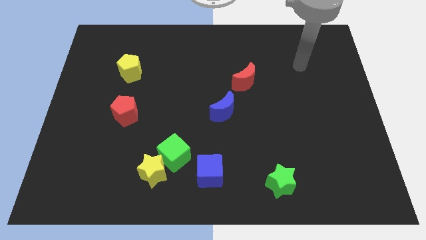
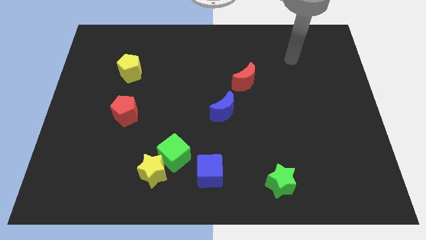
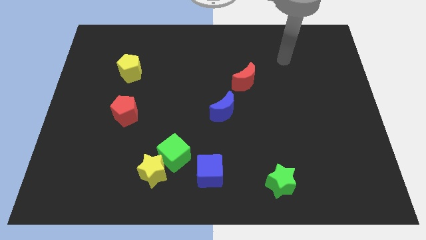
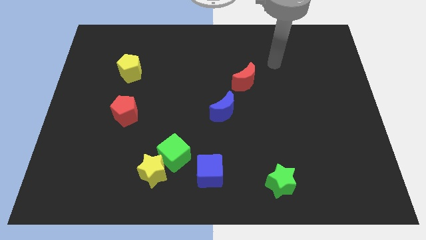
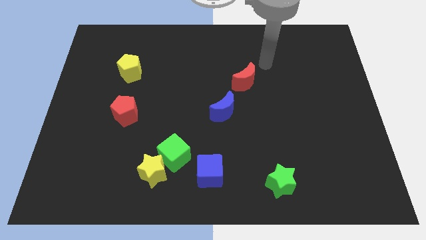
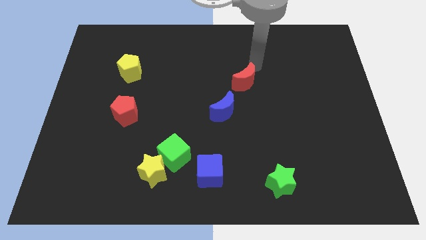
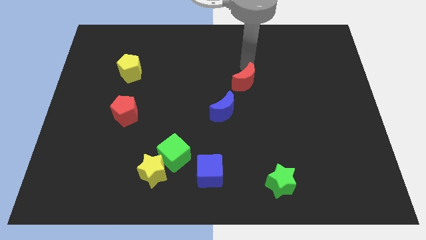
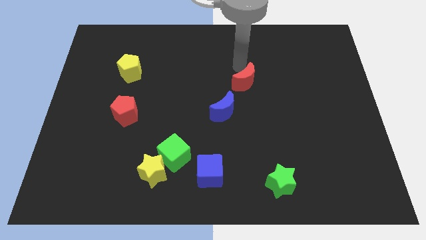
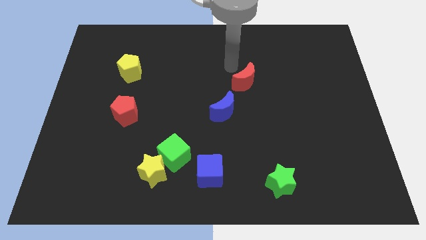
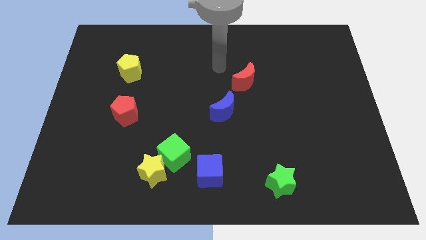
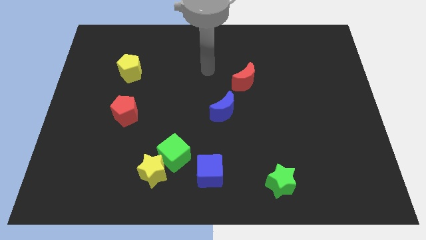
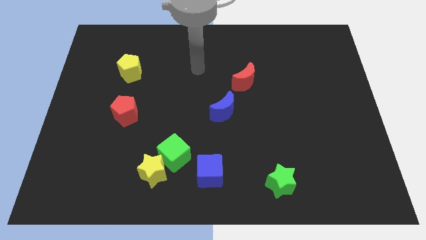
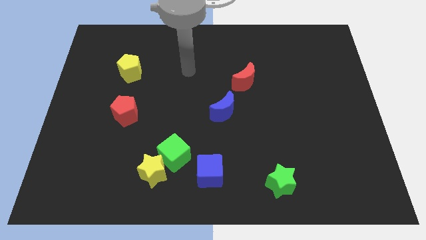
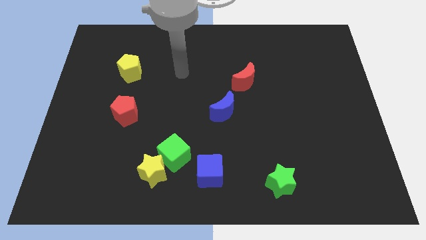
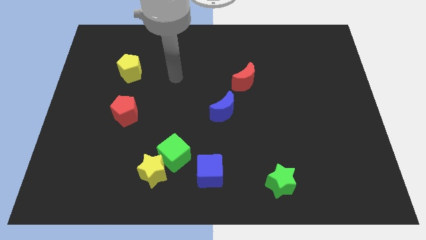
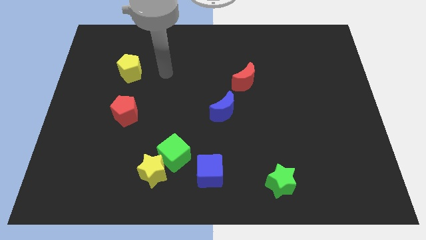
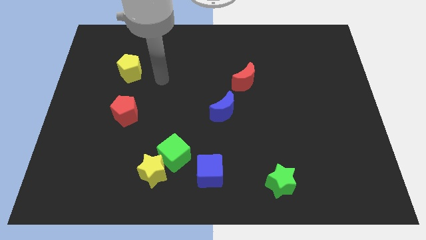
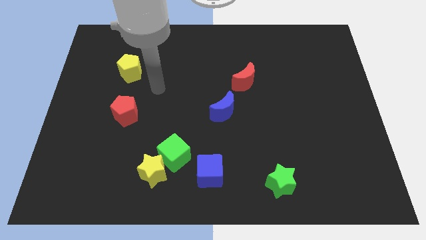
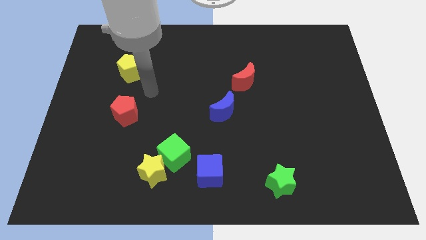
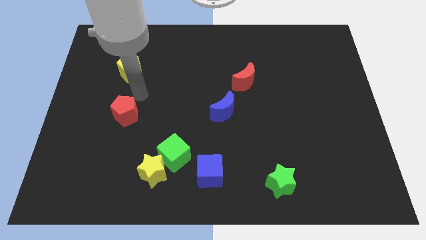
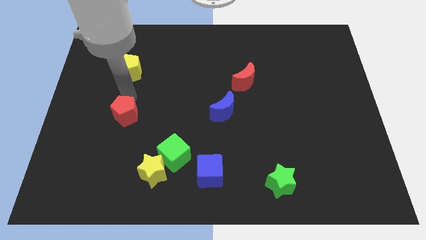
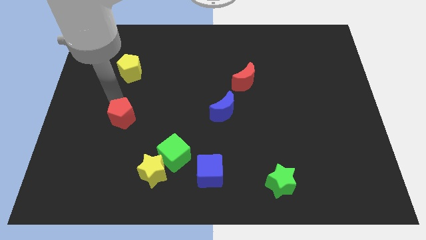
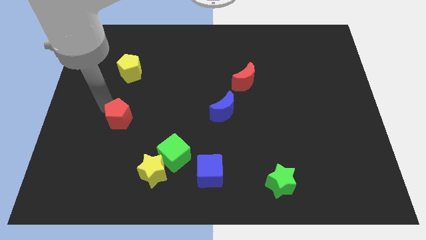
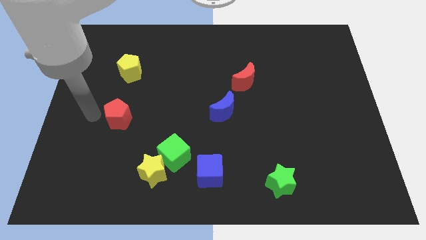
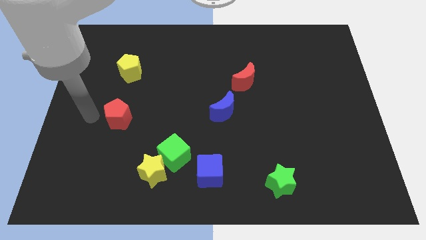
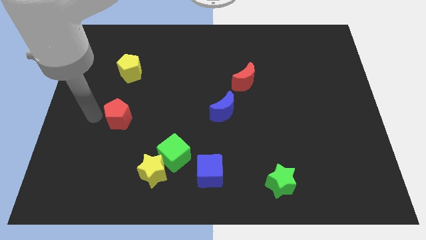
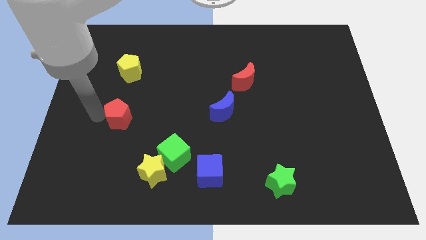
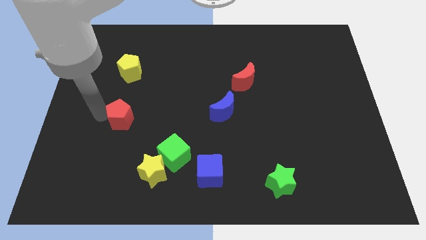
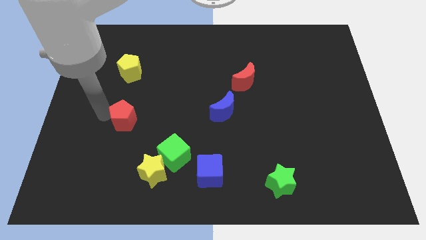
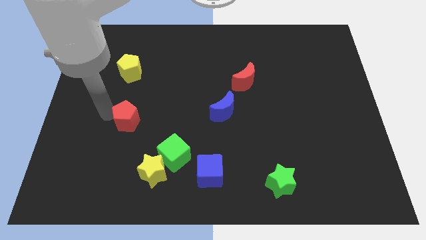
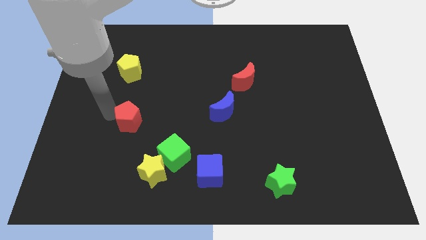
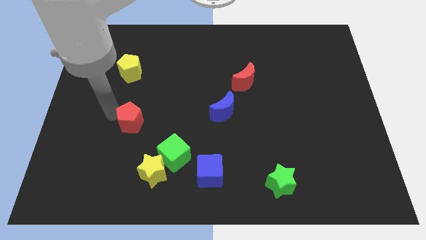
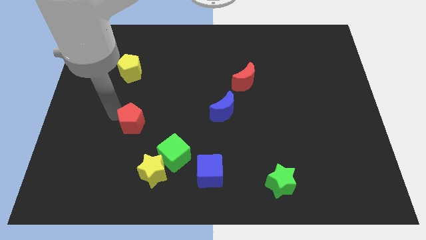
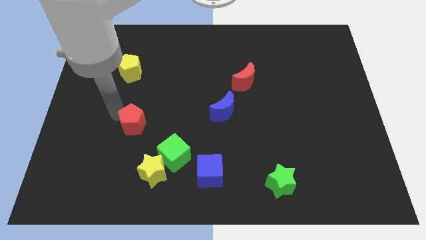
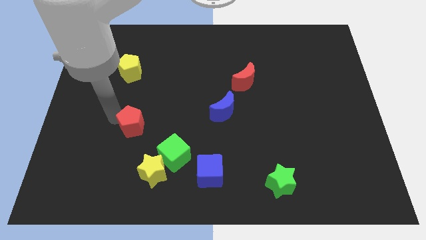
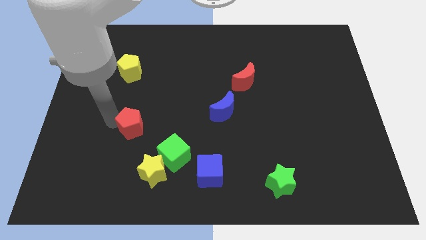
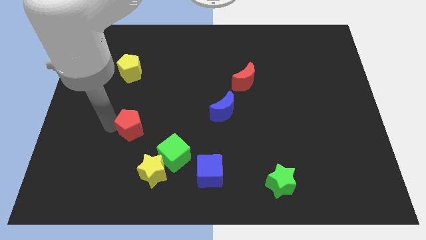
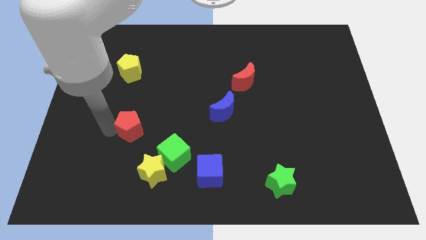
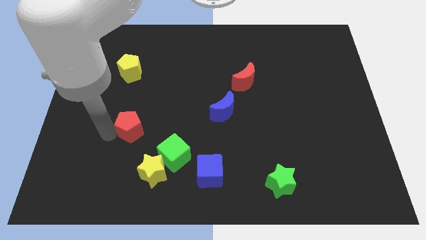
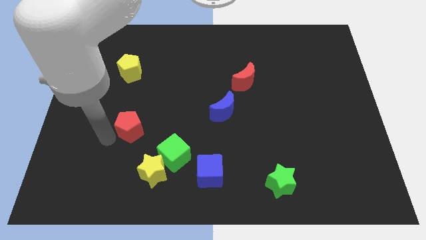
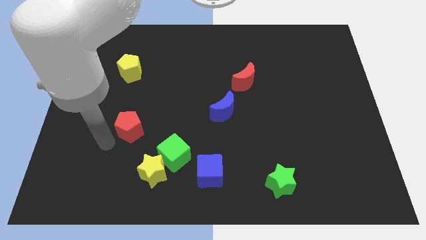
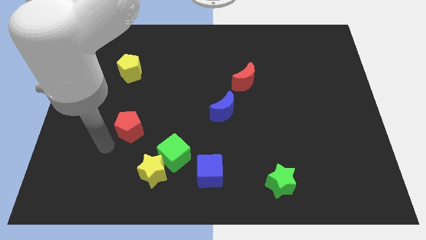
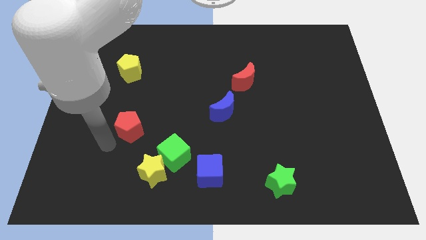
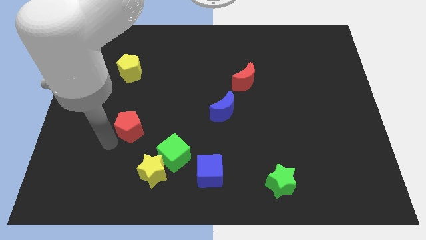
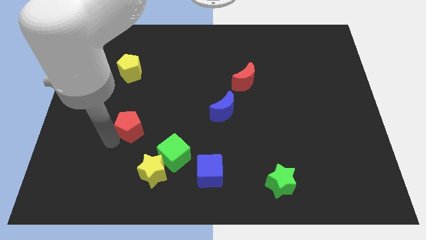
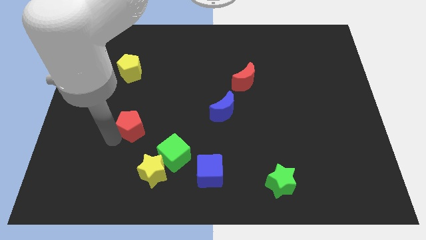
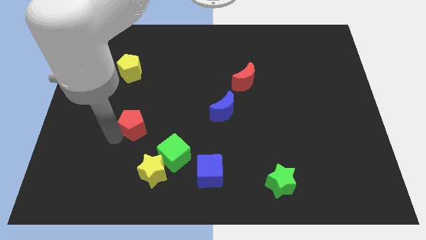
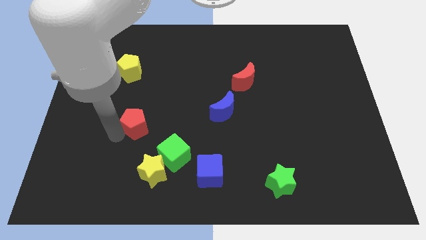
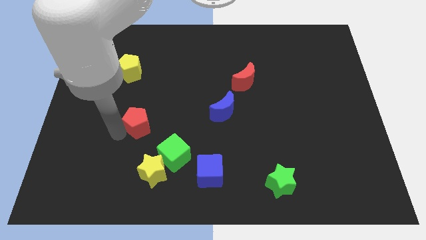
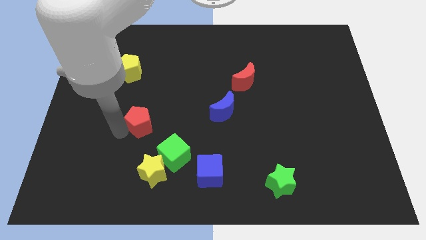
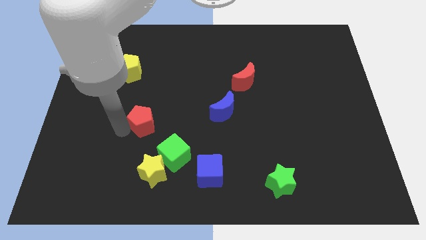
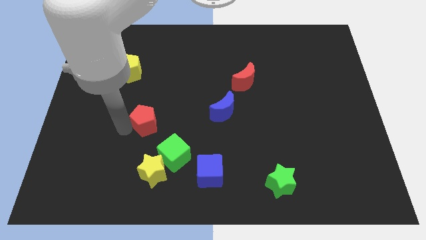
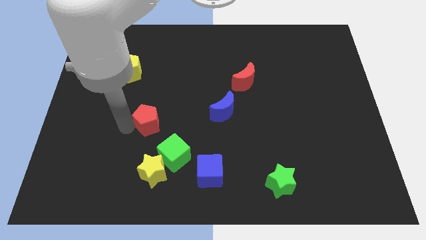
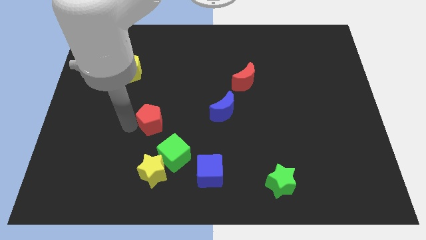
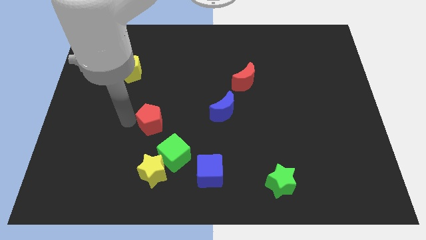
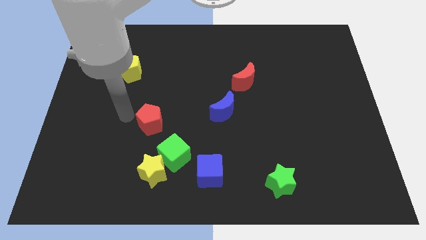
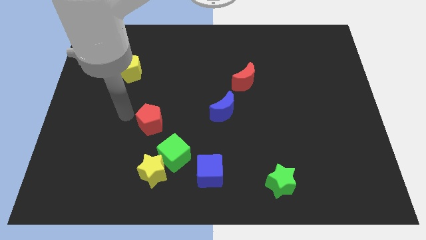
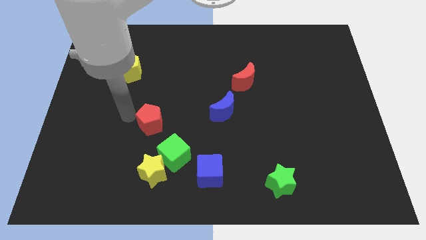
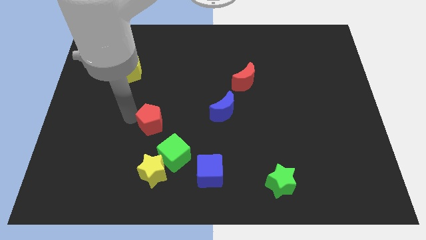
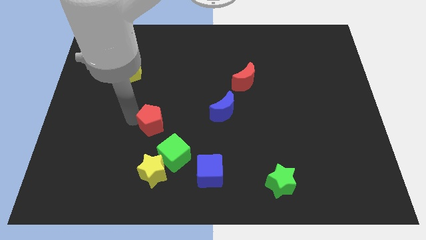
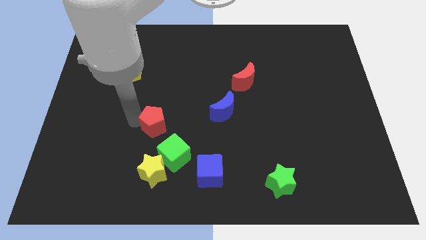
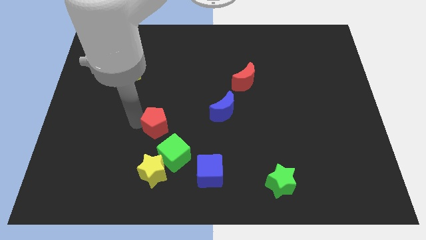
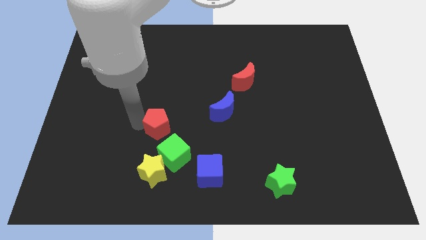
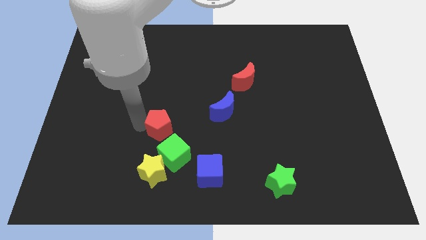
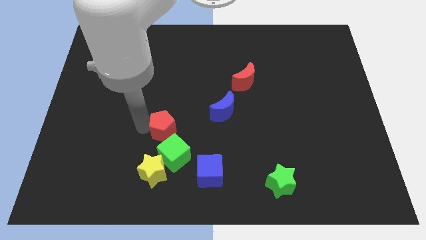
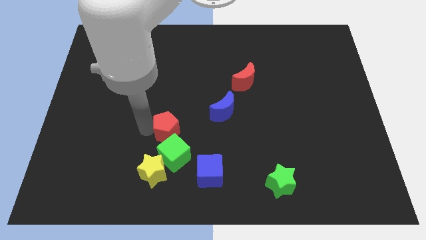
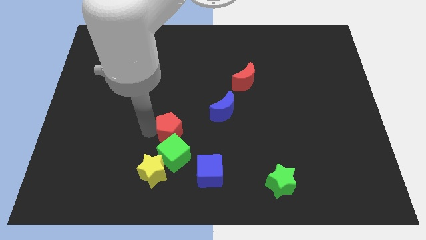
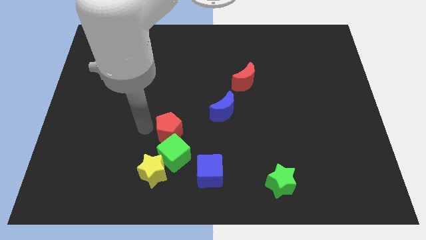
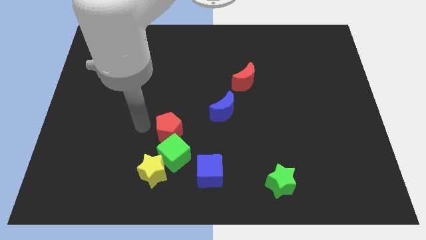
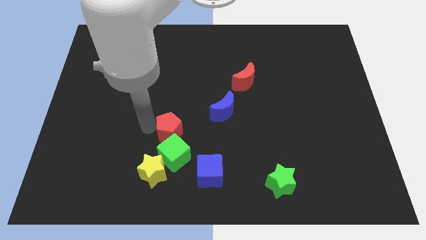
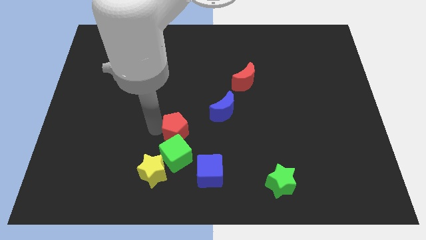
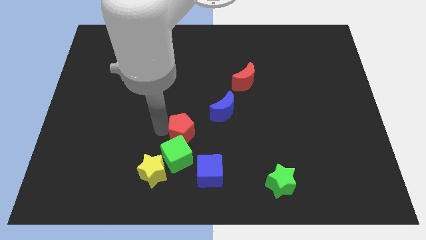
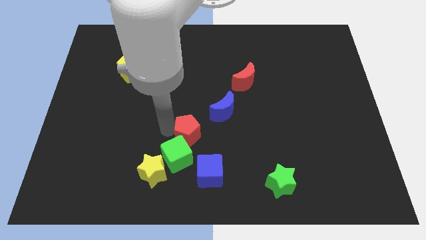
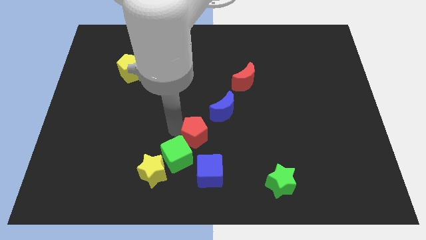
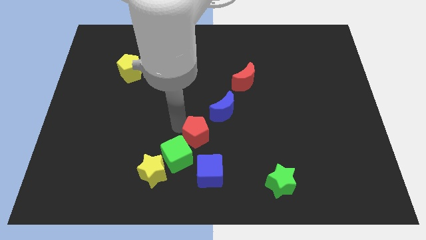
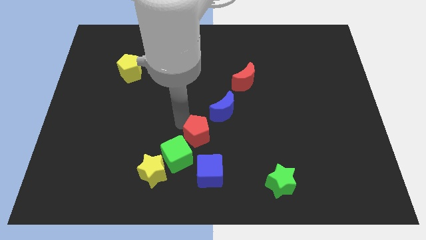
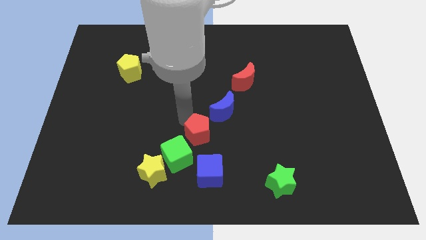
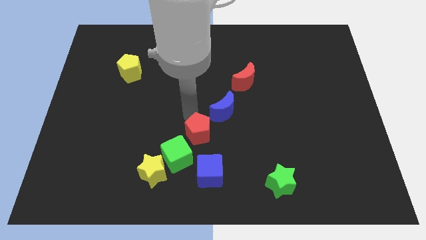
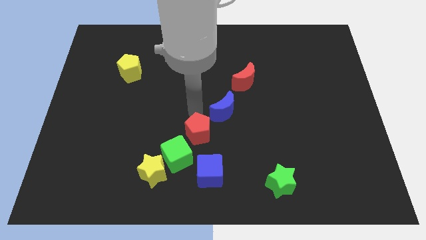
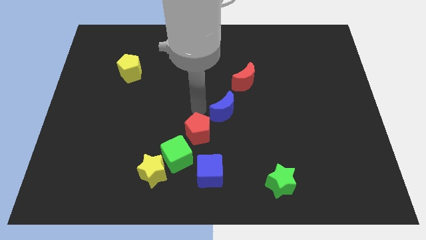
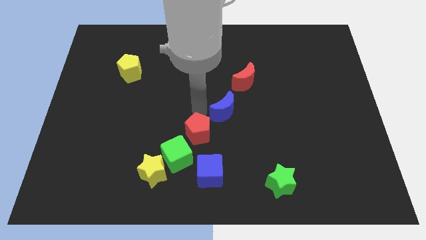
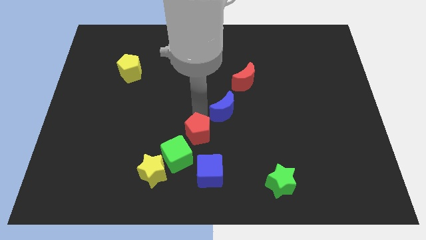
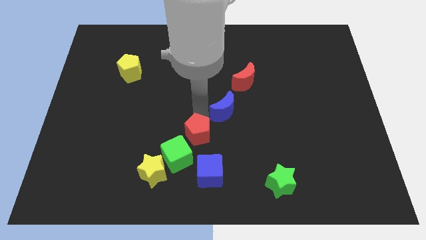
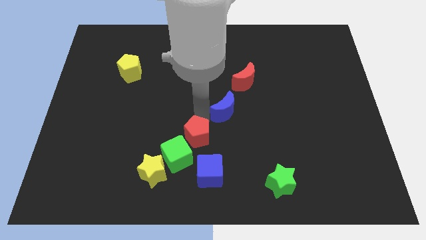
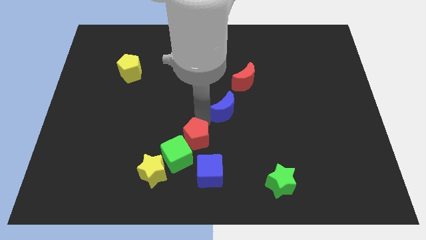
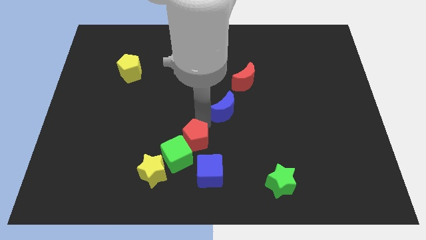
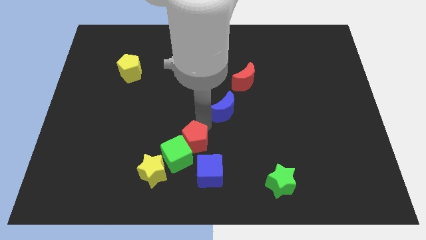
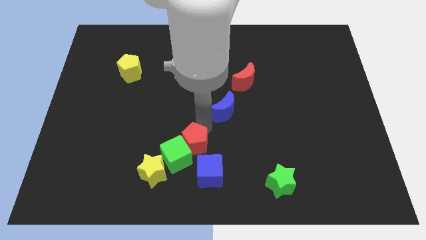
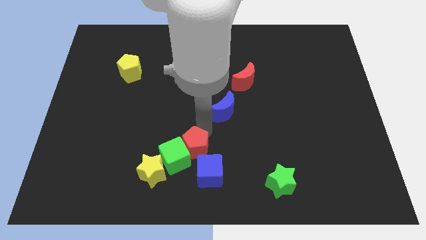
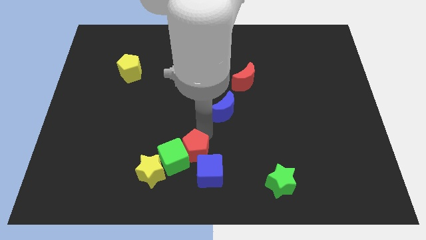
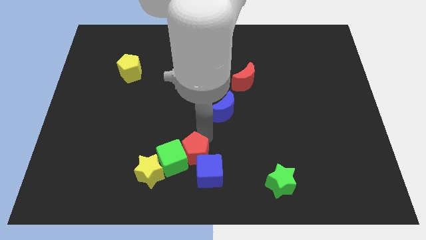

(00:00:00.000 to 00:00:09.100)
push the red pentagon to the blue cube
